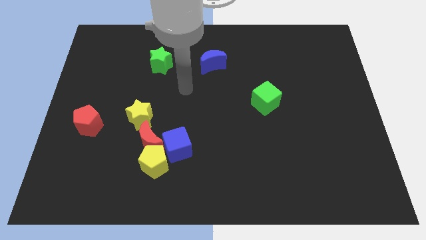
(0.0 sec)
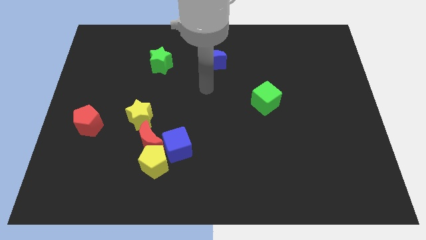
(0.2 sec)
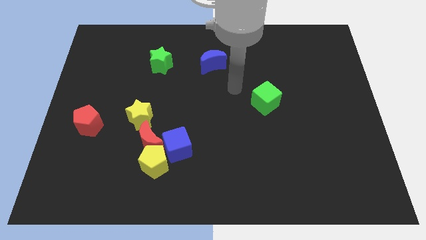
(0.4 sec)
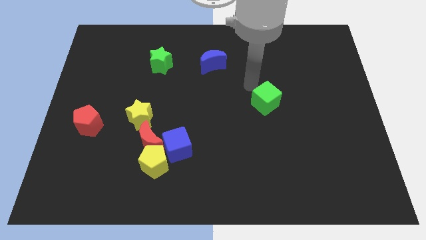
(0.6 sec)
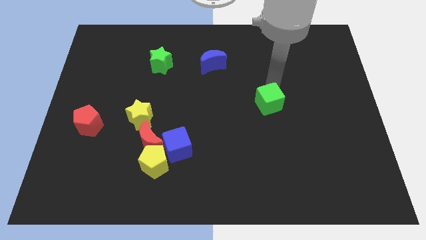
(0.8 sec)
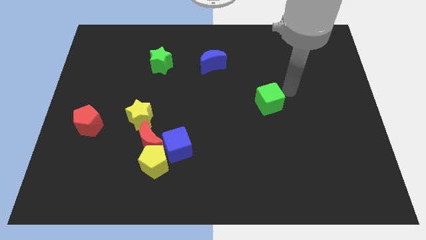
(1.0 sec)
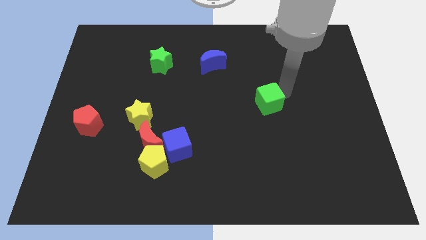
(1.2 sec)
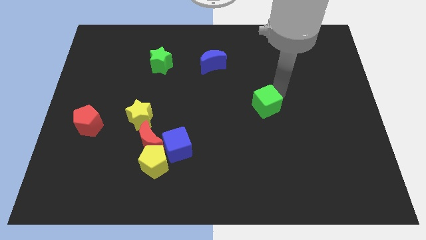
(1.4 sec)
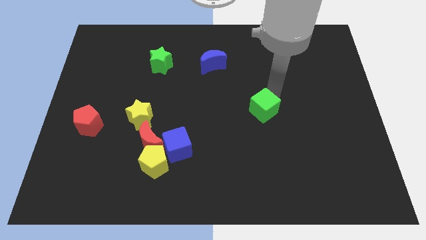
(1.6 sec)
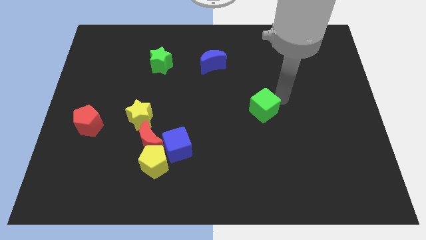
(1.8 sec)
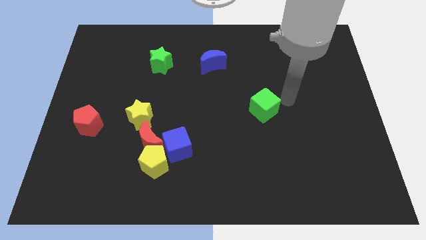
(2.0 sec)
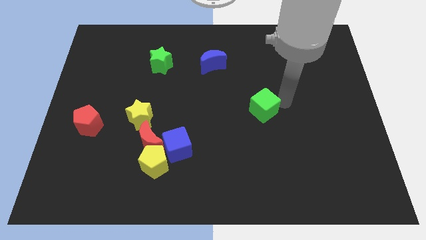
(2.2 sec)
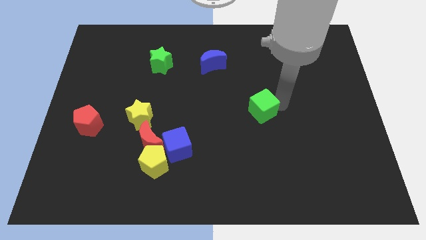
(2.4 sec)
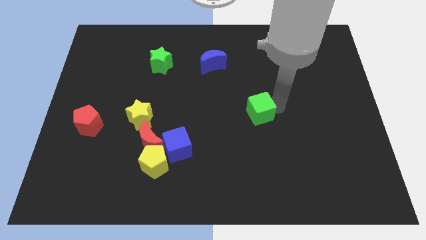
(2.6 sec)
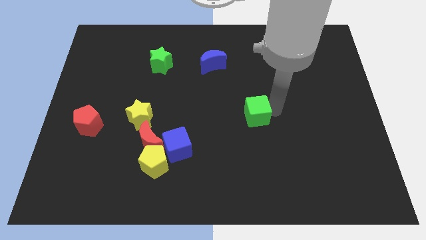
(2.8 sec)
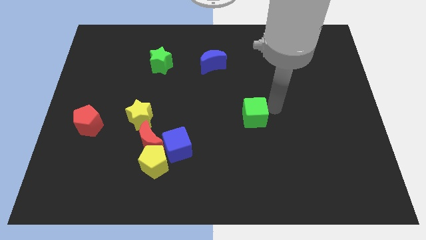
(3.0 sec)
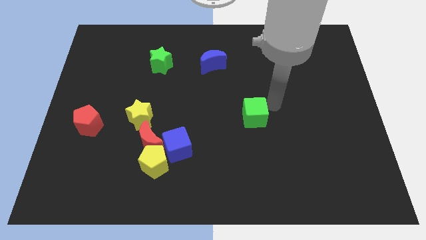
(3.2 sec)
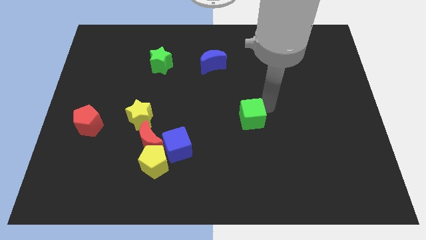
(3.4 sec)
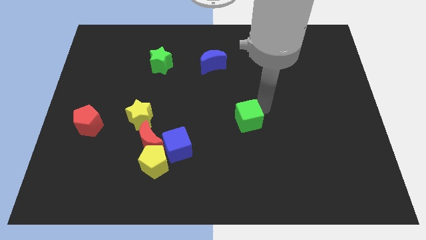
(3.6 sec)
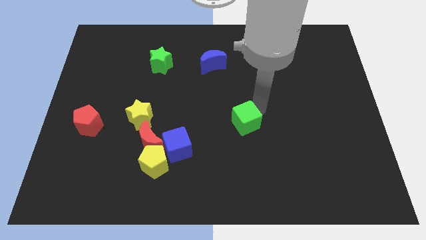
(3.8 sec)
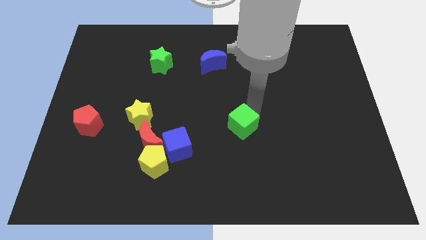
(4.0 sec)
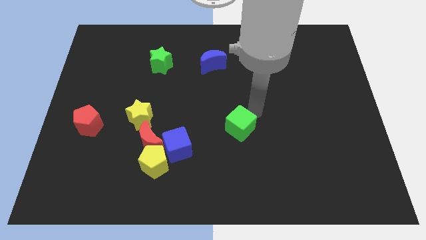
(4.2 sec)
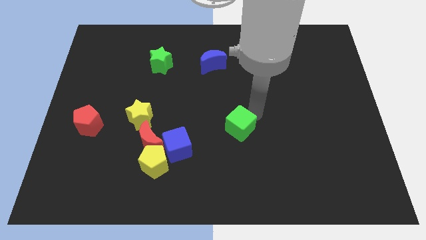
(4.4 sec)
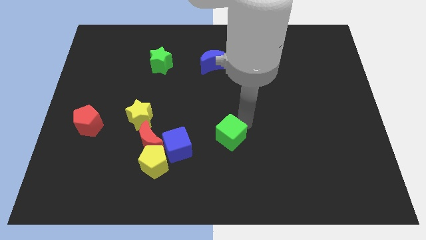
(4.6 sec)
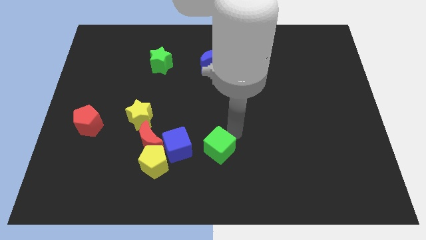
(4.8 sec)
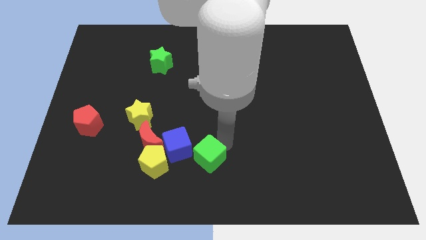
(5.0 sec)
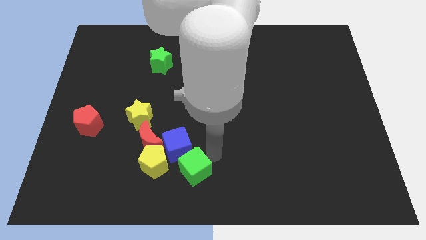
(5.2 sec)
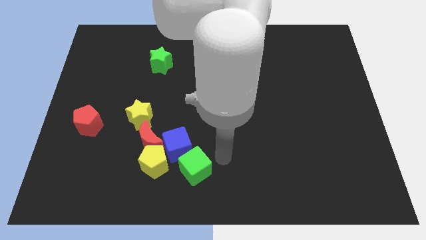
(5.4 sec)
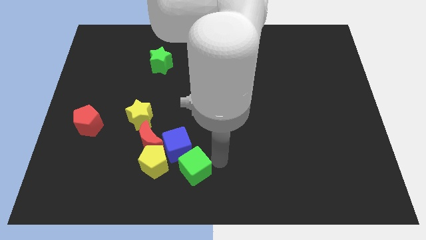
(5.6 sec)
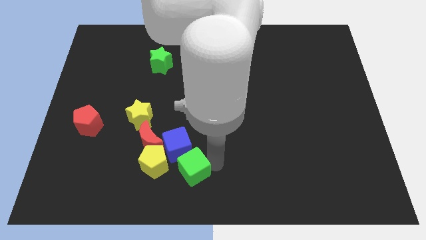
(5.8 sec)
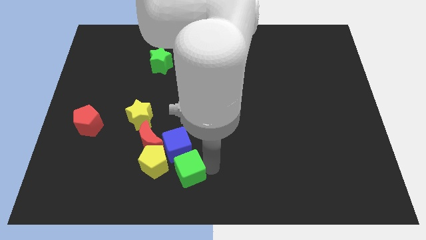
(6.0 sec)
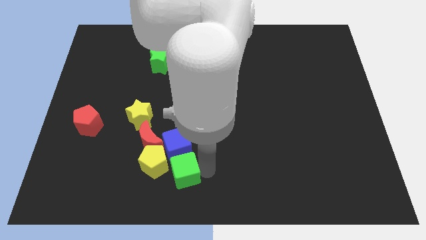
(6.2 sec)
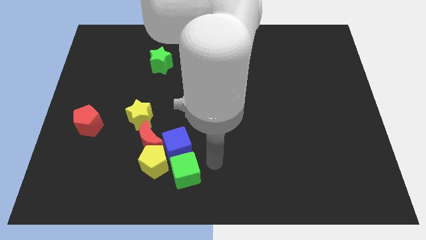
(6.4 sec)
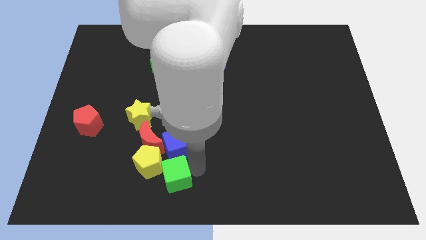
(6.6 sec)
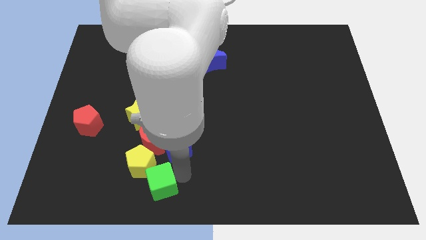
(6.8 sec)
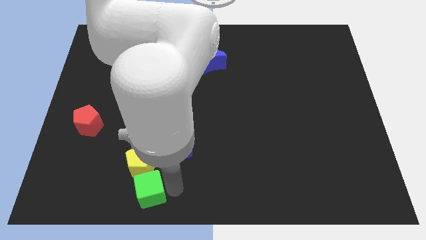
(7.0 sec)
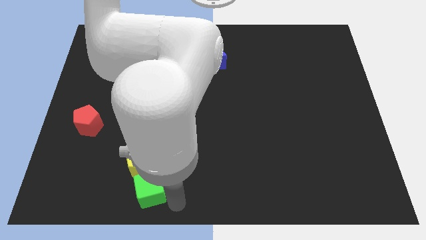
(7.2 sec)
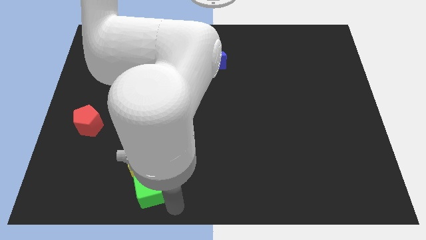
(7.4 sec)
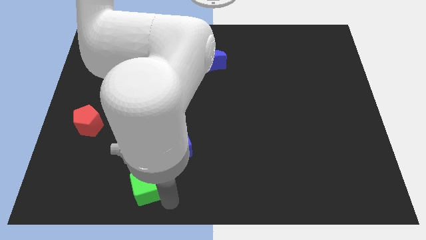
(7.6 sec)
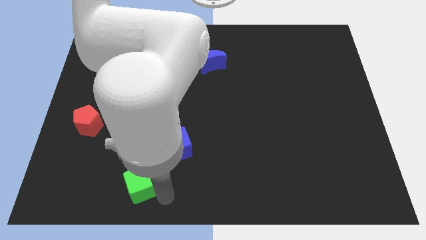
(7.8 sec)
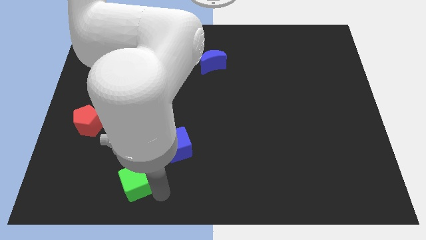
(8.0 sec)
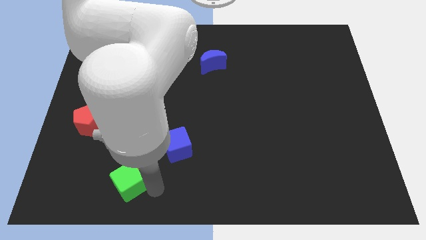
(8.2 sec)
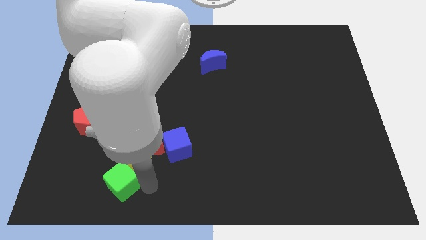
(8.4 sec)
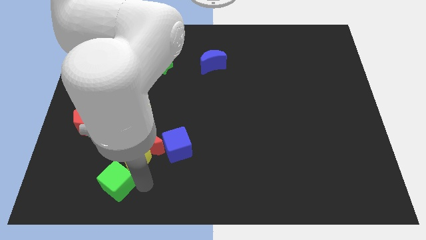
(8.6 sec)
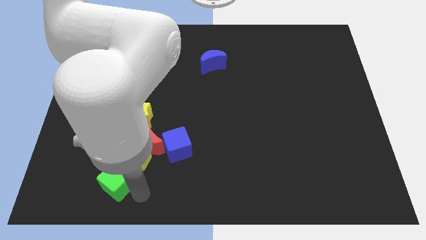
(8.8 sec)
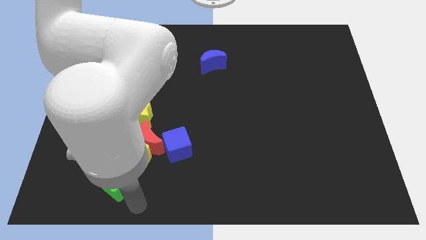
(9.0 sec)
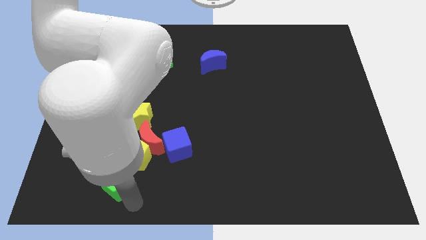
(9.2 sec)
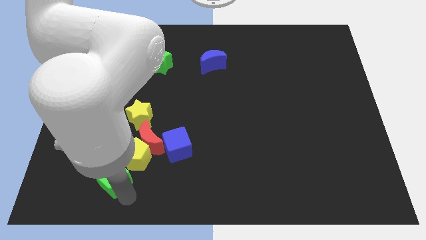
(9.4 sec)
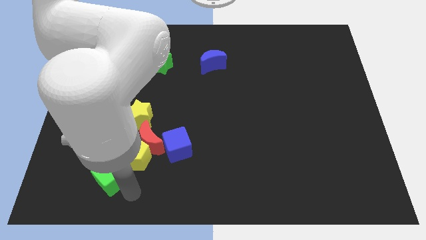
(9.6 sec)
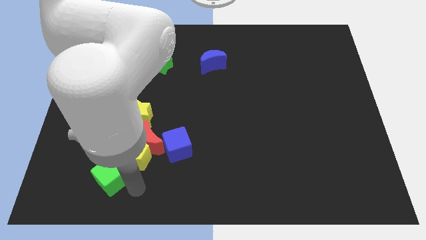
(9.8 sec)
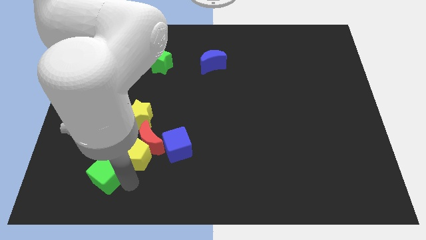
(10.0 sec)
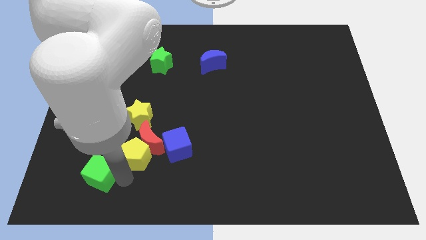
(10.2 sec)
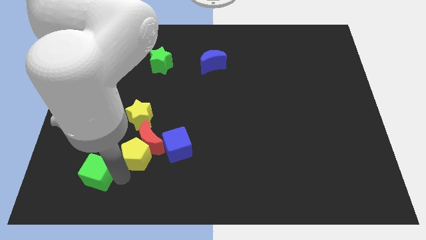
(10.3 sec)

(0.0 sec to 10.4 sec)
push the green cube to the bottom side of the red pentagon

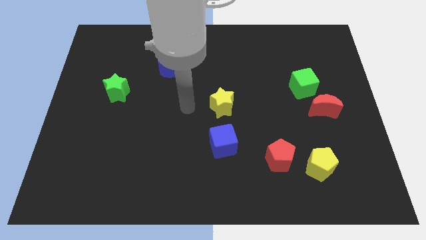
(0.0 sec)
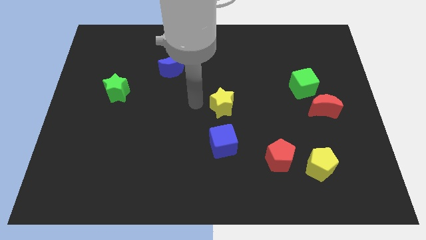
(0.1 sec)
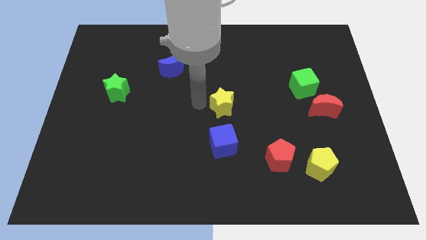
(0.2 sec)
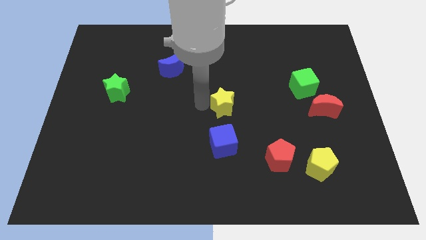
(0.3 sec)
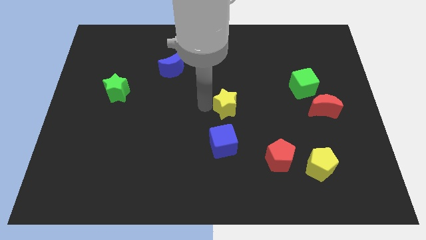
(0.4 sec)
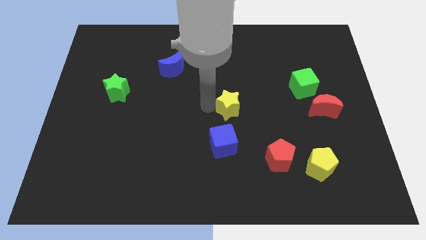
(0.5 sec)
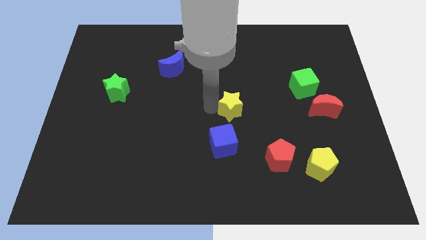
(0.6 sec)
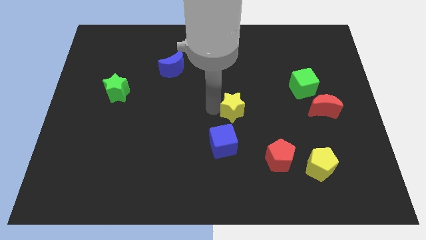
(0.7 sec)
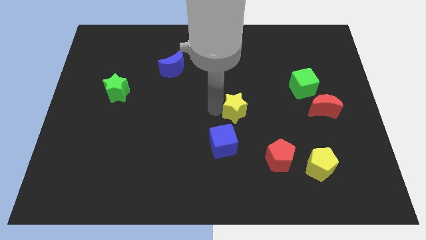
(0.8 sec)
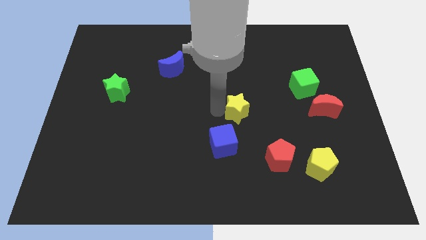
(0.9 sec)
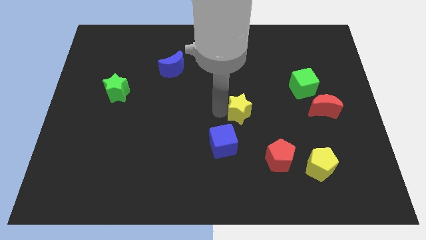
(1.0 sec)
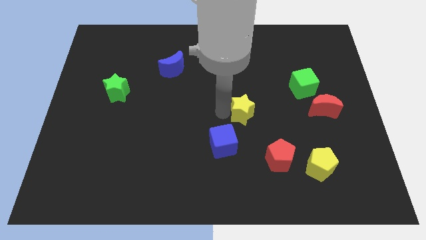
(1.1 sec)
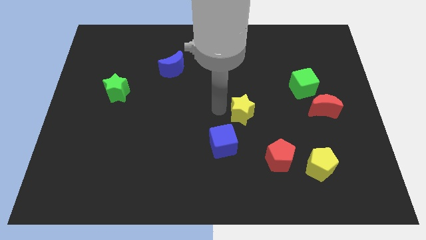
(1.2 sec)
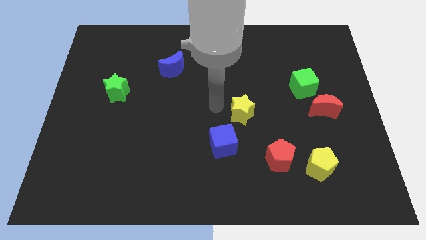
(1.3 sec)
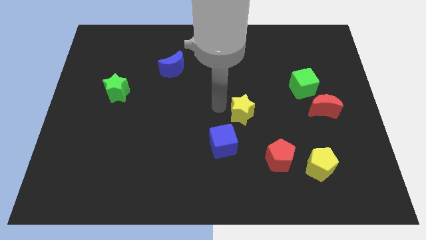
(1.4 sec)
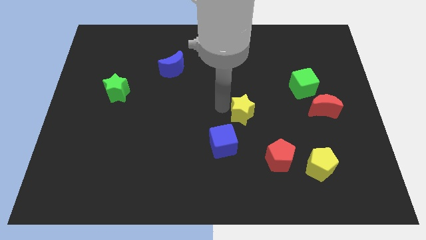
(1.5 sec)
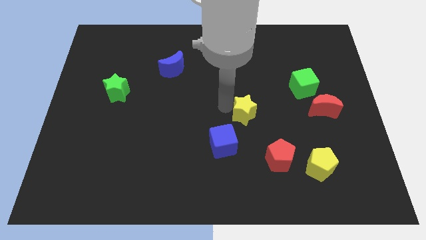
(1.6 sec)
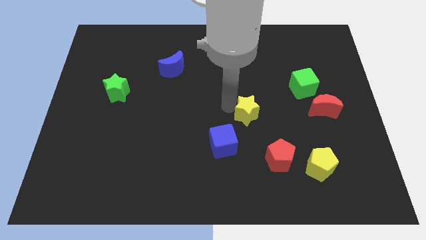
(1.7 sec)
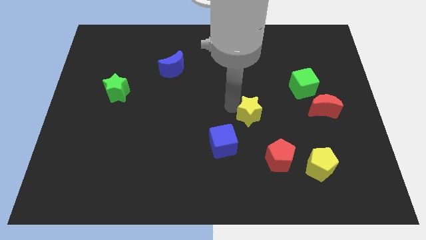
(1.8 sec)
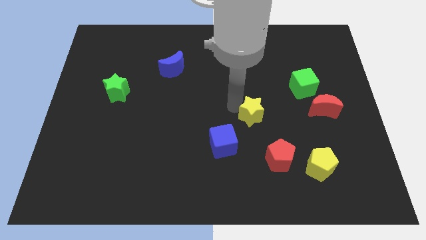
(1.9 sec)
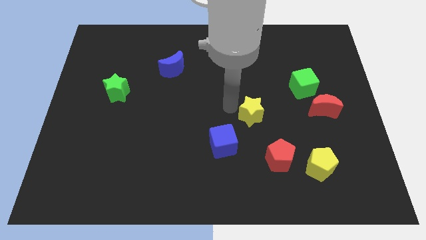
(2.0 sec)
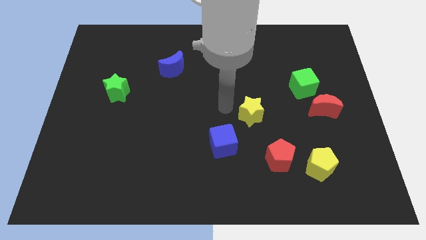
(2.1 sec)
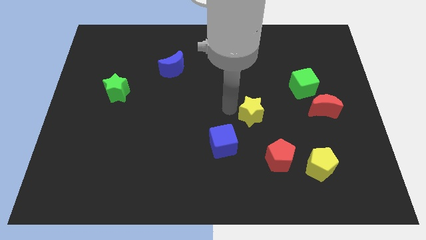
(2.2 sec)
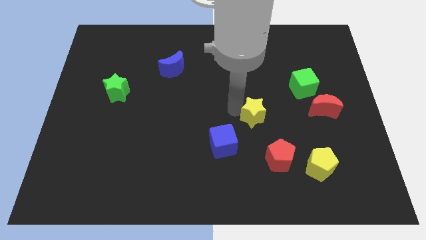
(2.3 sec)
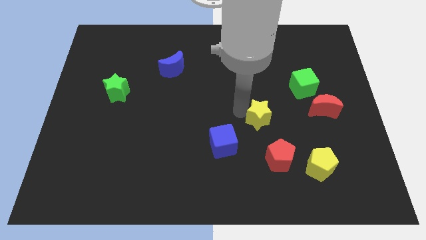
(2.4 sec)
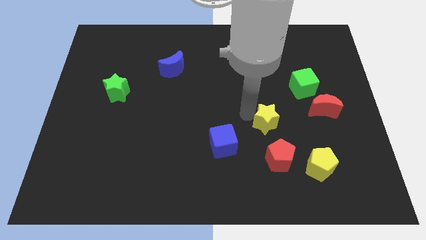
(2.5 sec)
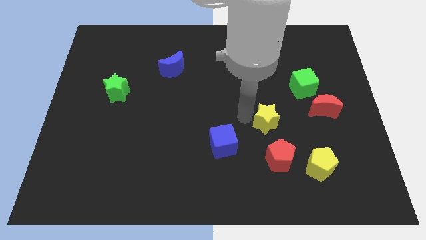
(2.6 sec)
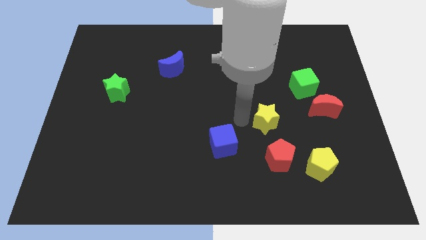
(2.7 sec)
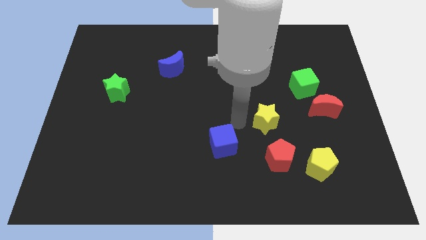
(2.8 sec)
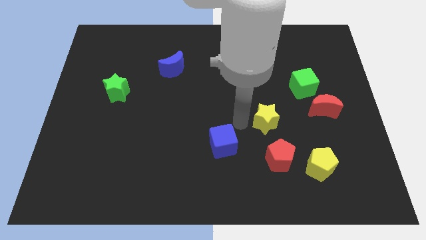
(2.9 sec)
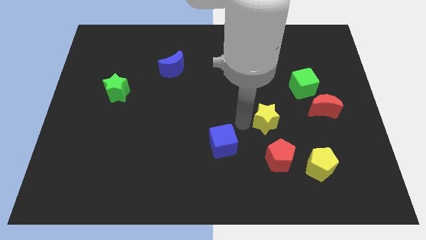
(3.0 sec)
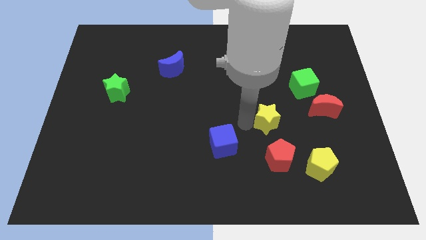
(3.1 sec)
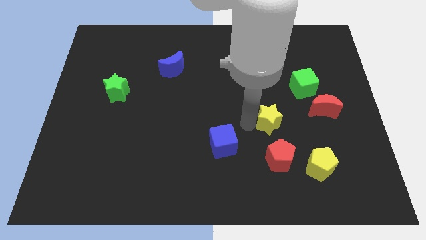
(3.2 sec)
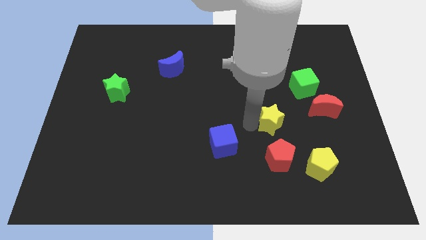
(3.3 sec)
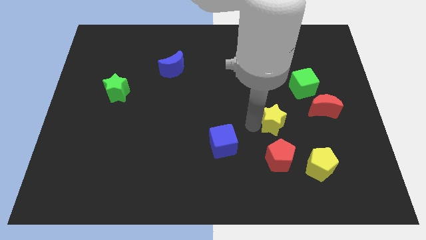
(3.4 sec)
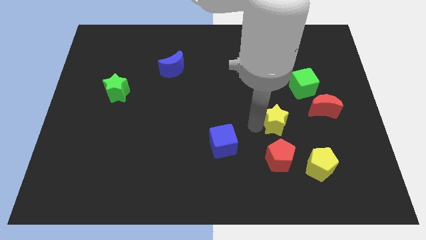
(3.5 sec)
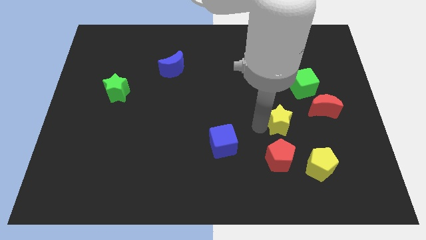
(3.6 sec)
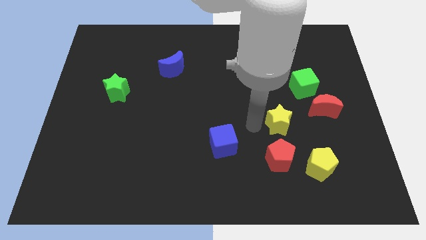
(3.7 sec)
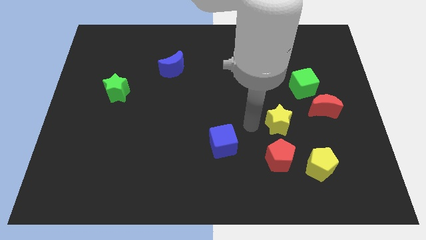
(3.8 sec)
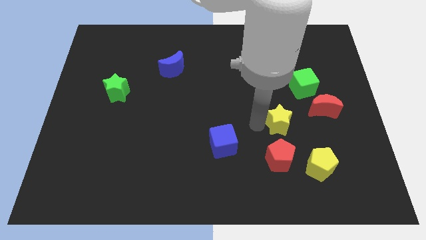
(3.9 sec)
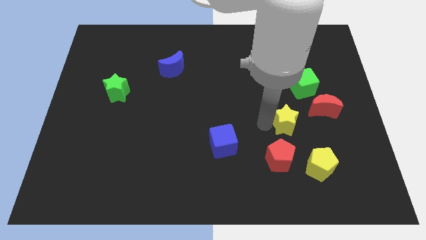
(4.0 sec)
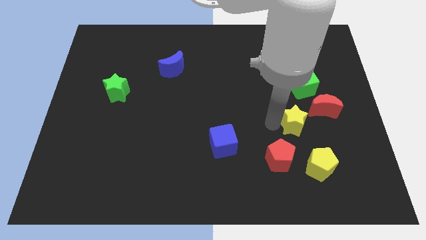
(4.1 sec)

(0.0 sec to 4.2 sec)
put the yellow star below the green cube
